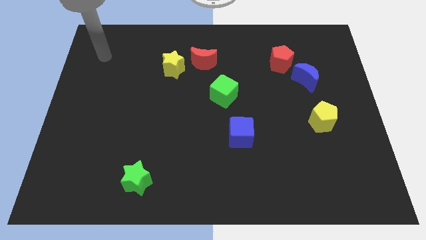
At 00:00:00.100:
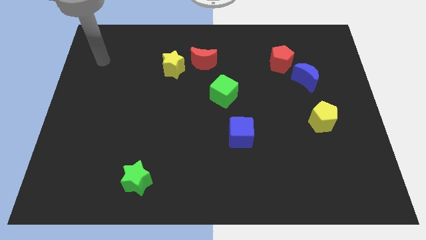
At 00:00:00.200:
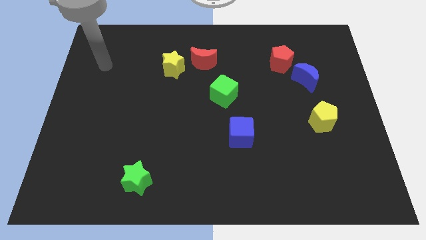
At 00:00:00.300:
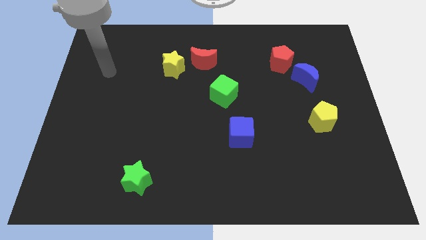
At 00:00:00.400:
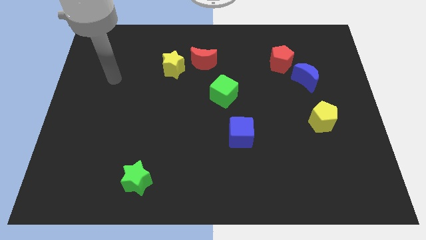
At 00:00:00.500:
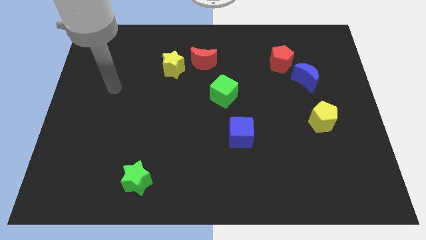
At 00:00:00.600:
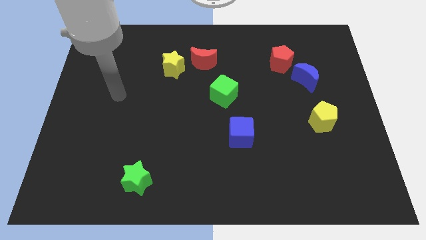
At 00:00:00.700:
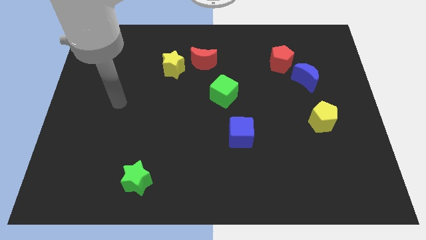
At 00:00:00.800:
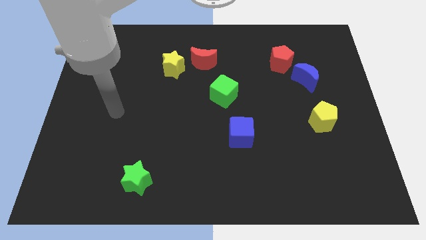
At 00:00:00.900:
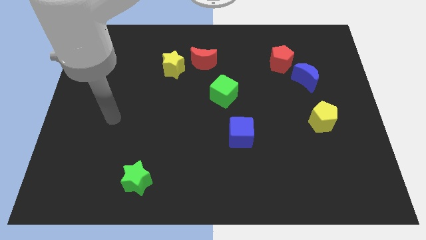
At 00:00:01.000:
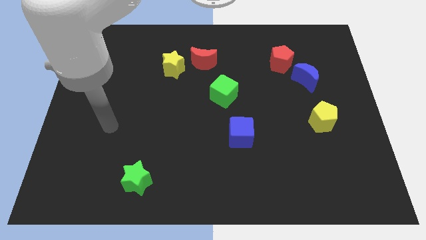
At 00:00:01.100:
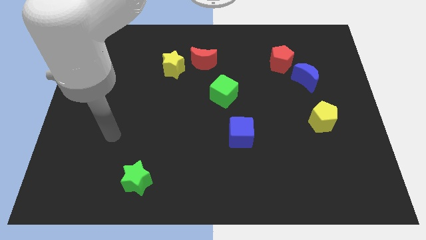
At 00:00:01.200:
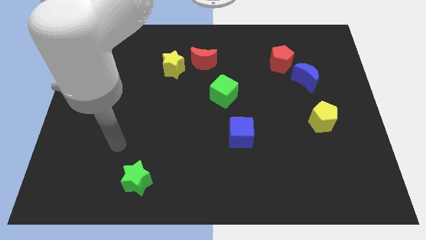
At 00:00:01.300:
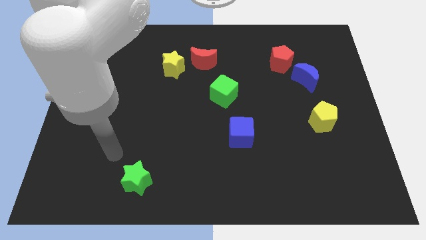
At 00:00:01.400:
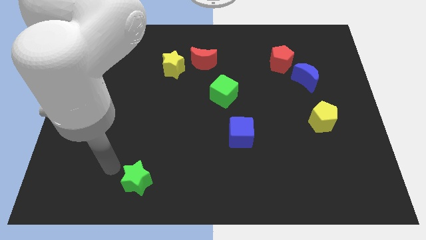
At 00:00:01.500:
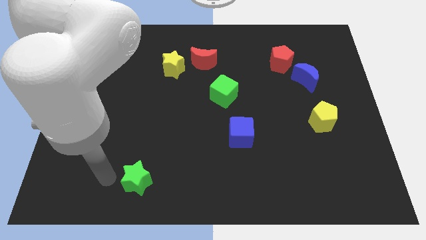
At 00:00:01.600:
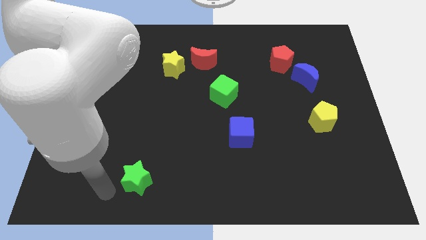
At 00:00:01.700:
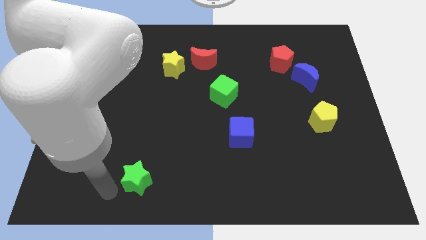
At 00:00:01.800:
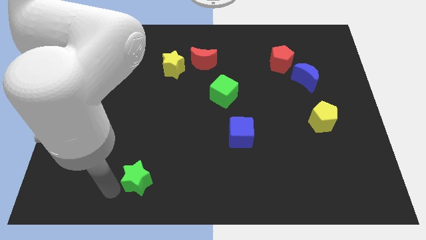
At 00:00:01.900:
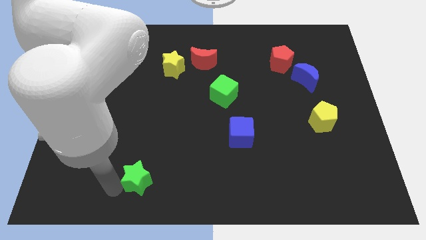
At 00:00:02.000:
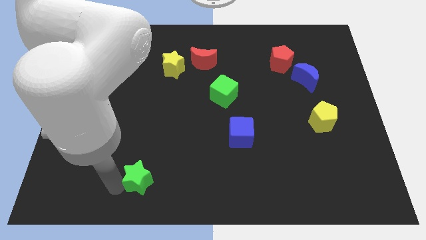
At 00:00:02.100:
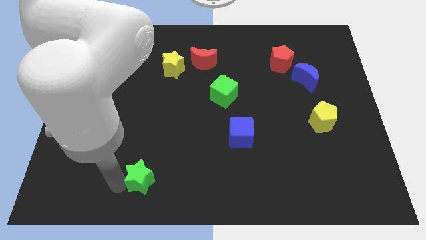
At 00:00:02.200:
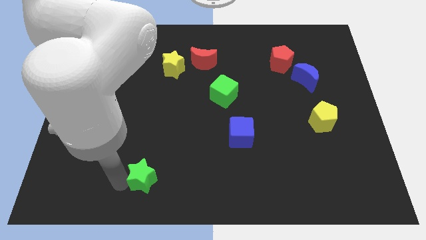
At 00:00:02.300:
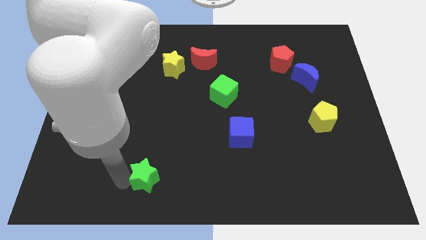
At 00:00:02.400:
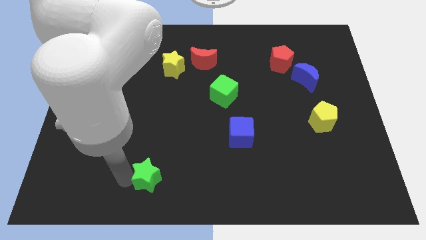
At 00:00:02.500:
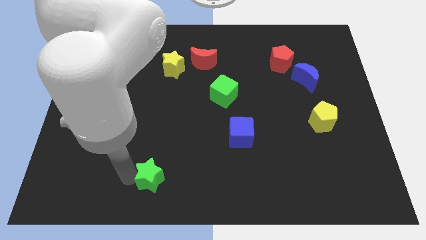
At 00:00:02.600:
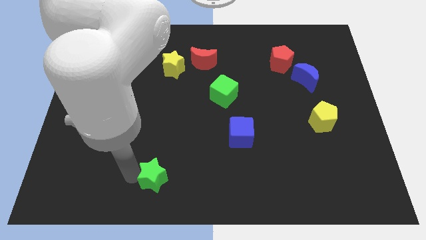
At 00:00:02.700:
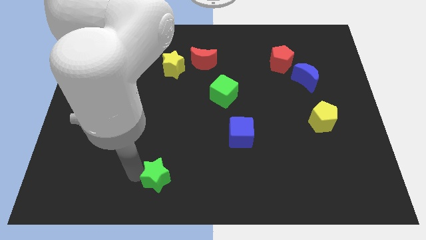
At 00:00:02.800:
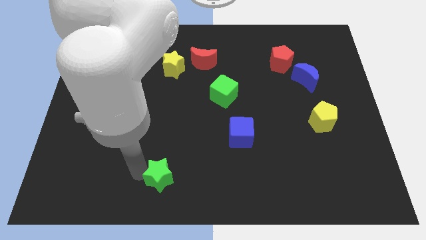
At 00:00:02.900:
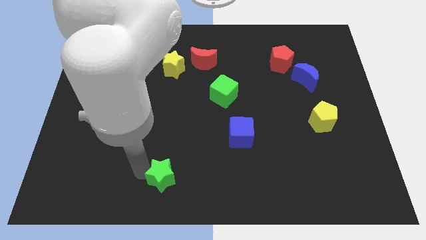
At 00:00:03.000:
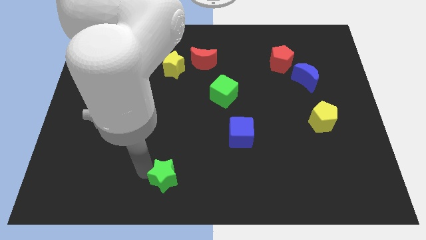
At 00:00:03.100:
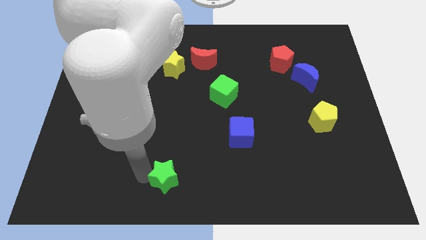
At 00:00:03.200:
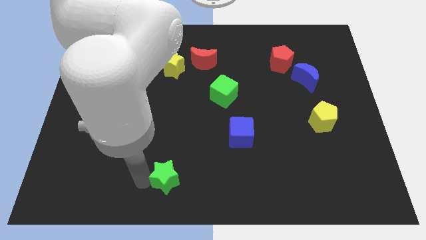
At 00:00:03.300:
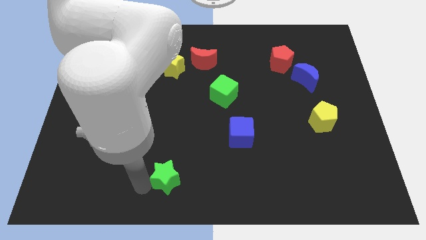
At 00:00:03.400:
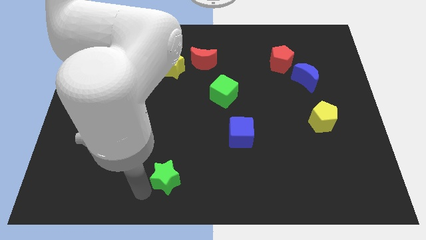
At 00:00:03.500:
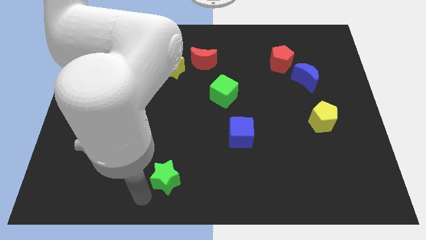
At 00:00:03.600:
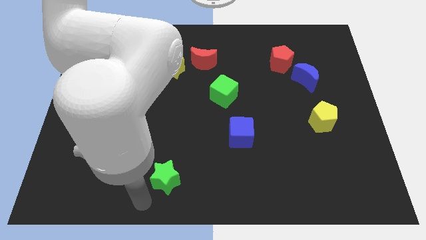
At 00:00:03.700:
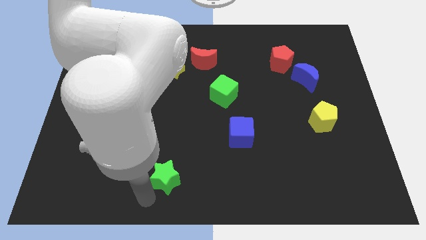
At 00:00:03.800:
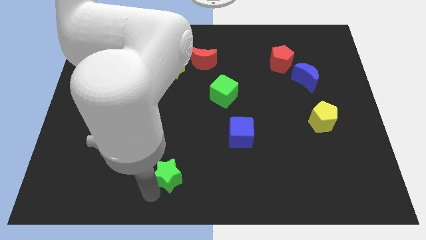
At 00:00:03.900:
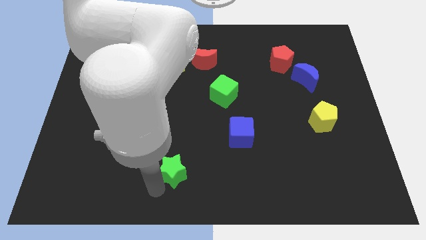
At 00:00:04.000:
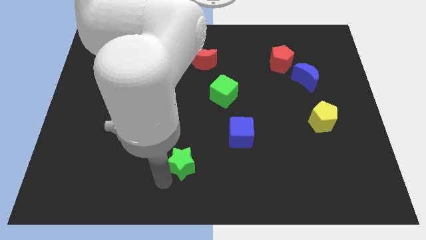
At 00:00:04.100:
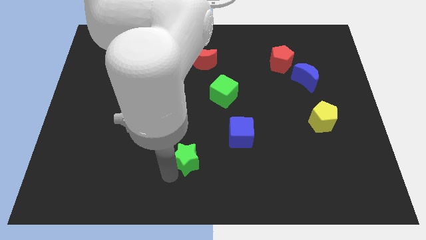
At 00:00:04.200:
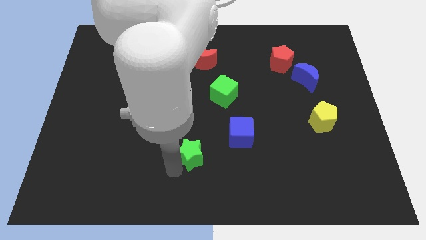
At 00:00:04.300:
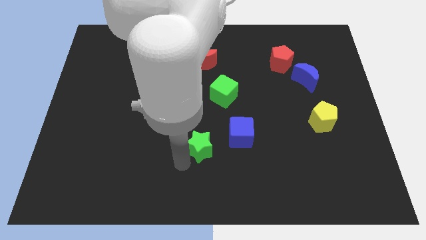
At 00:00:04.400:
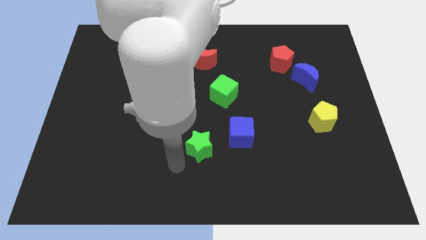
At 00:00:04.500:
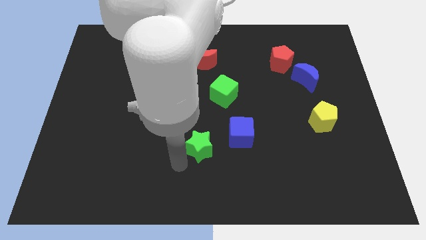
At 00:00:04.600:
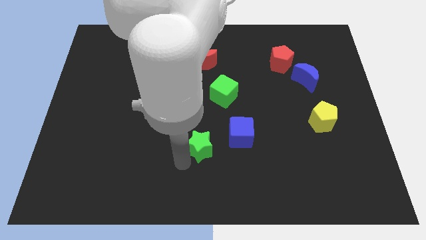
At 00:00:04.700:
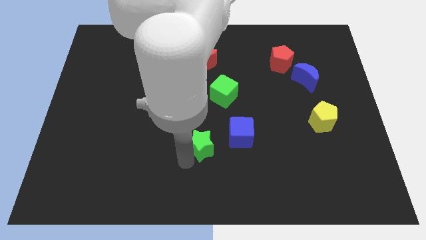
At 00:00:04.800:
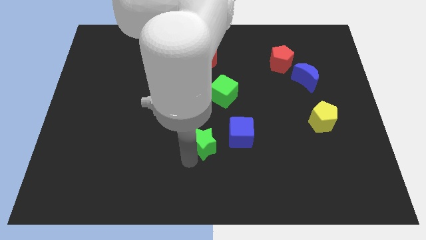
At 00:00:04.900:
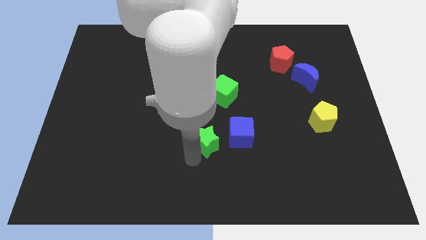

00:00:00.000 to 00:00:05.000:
put the green star below the green cube

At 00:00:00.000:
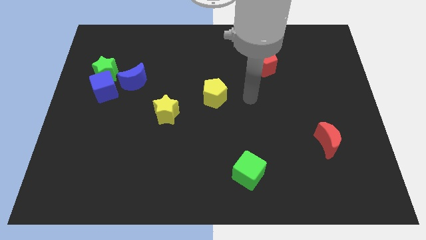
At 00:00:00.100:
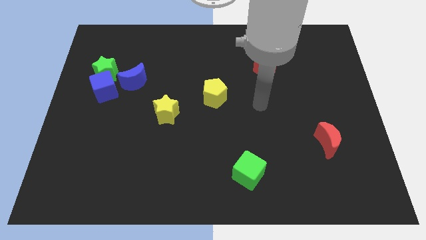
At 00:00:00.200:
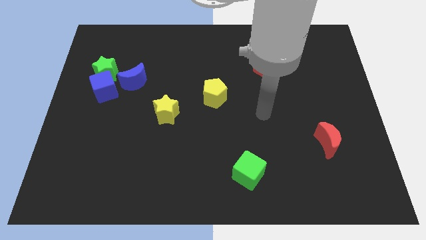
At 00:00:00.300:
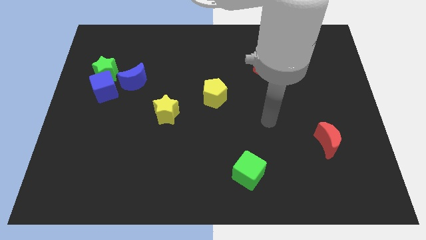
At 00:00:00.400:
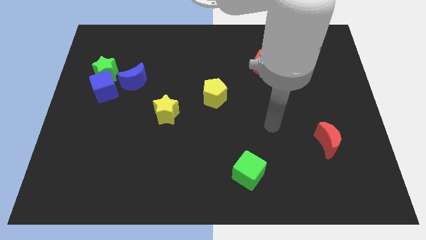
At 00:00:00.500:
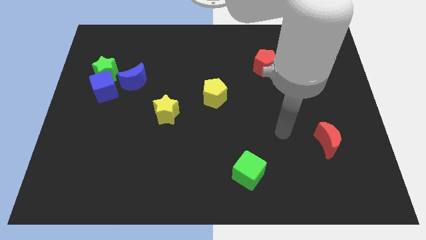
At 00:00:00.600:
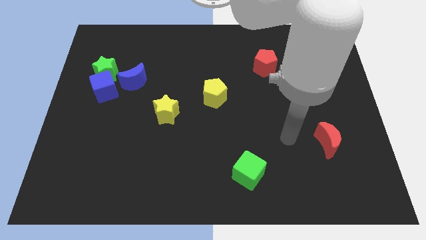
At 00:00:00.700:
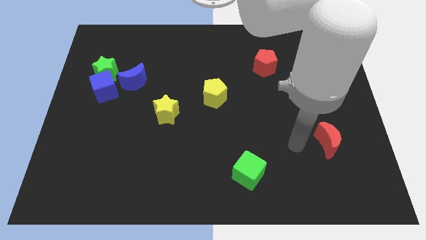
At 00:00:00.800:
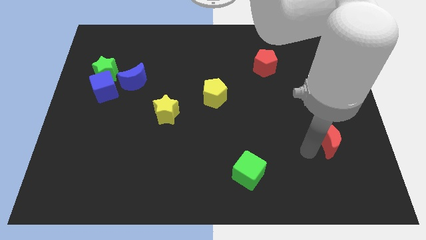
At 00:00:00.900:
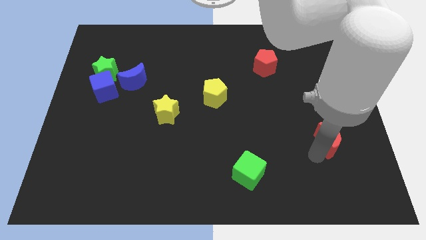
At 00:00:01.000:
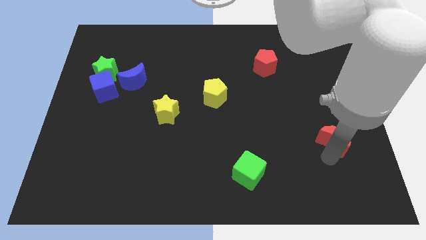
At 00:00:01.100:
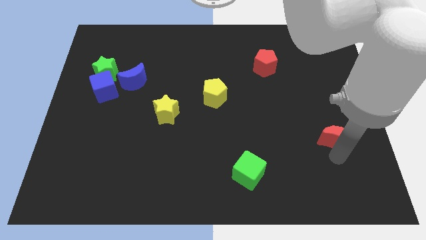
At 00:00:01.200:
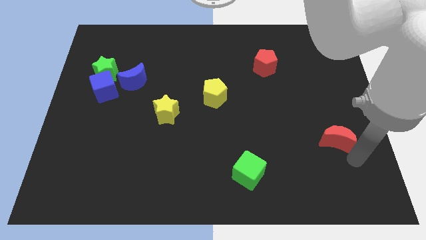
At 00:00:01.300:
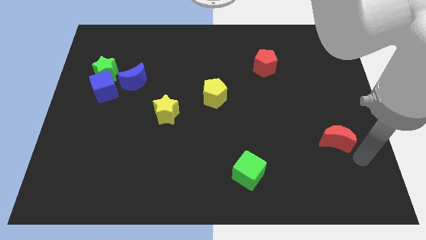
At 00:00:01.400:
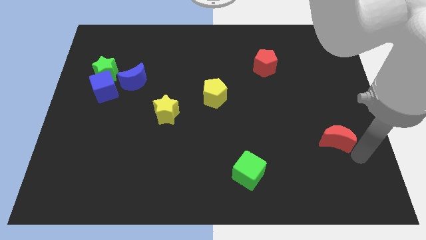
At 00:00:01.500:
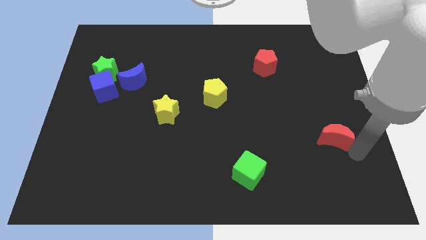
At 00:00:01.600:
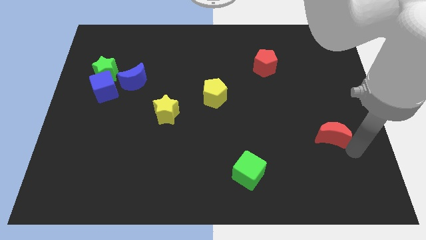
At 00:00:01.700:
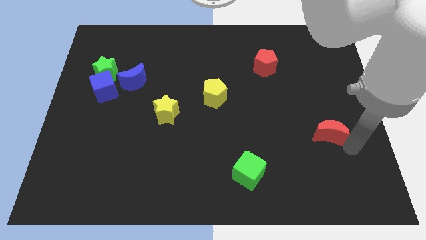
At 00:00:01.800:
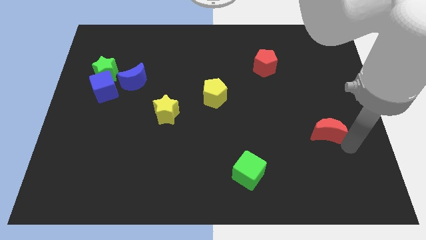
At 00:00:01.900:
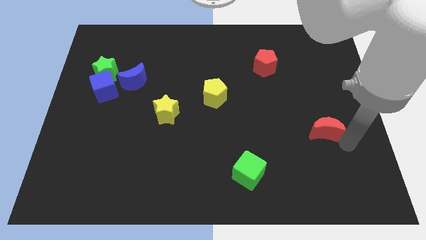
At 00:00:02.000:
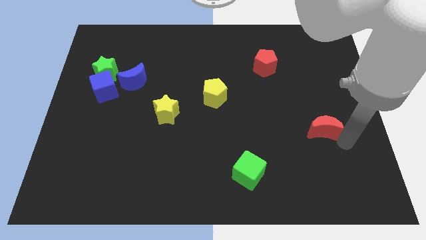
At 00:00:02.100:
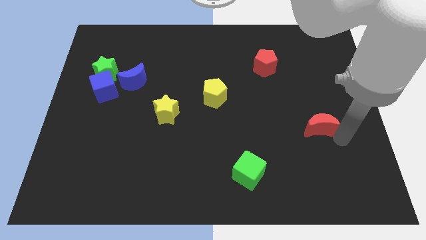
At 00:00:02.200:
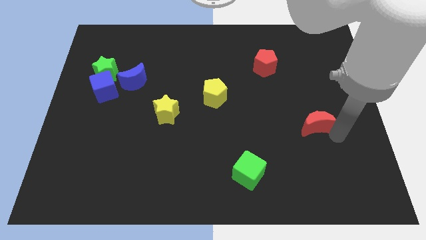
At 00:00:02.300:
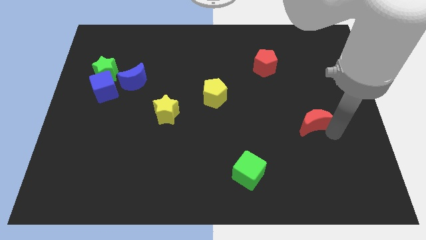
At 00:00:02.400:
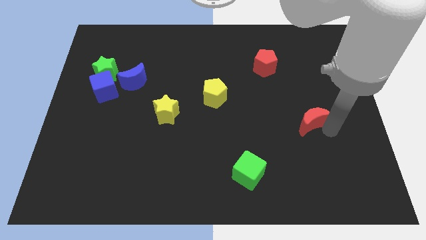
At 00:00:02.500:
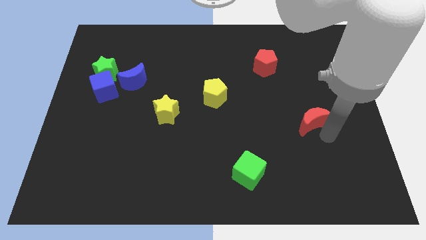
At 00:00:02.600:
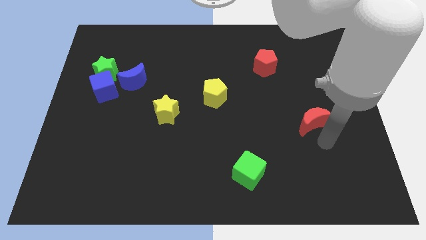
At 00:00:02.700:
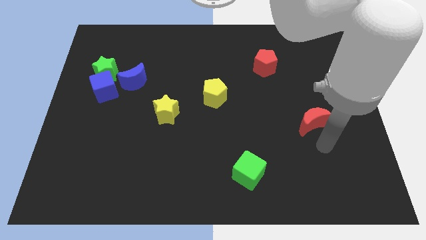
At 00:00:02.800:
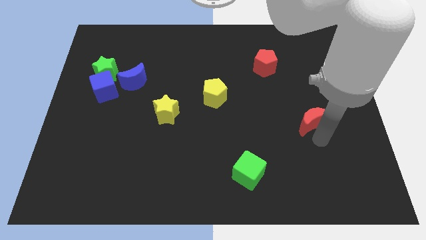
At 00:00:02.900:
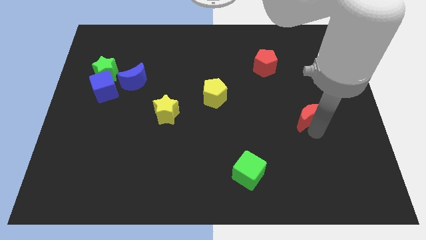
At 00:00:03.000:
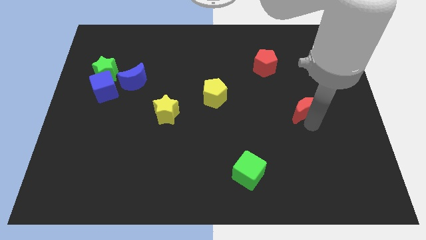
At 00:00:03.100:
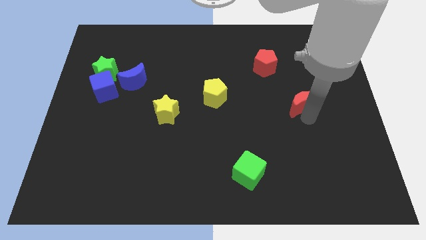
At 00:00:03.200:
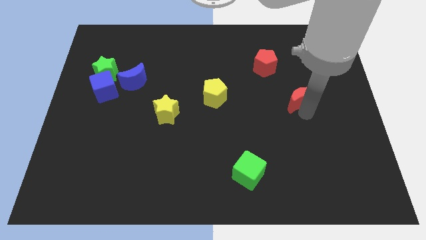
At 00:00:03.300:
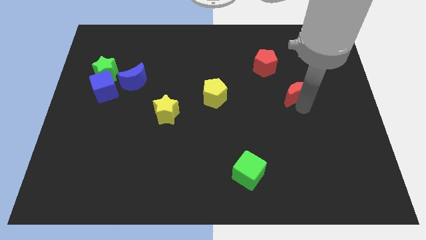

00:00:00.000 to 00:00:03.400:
push the red moon diagonally down and to the right of the red pentagon
